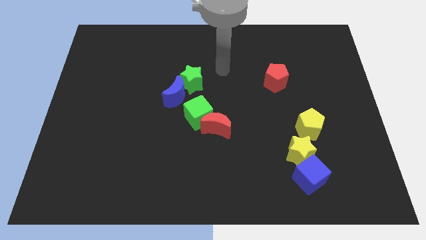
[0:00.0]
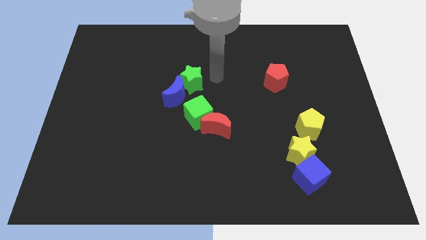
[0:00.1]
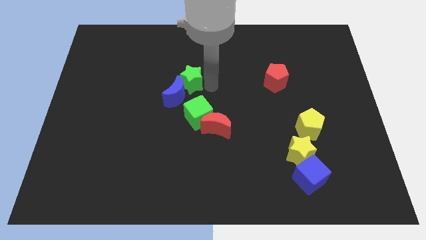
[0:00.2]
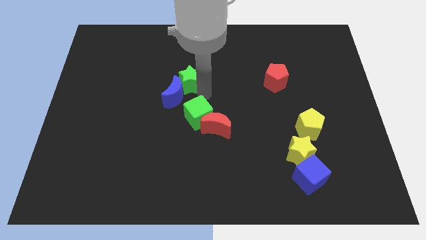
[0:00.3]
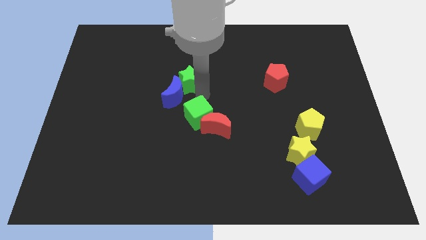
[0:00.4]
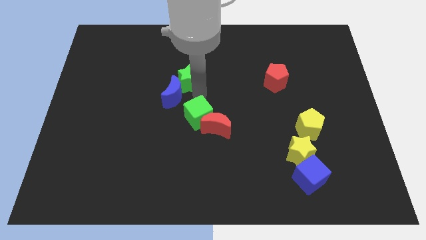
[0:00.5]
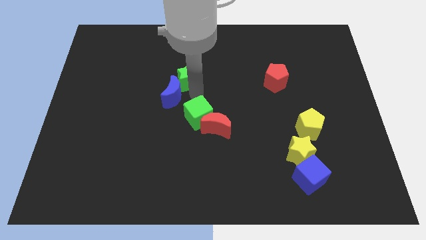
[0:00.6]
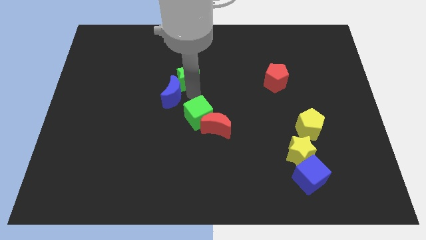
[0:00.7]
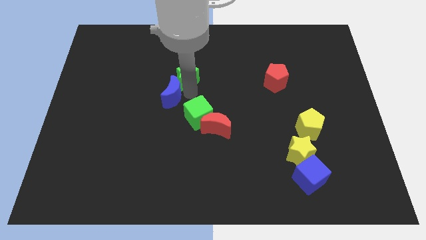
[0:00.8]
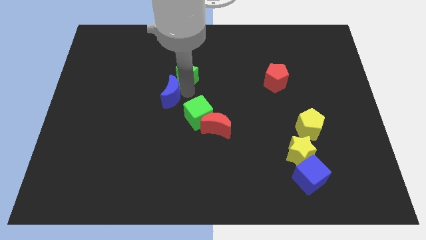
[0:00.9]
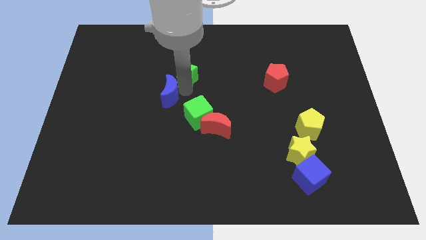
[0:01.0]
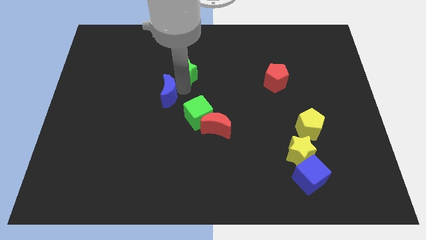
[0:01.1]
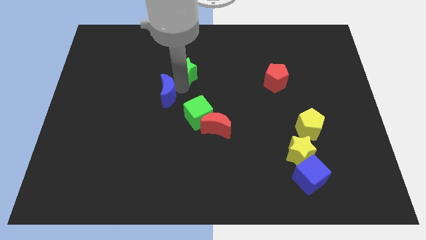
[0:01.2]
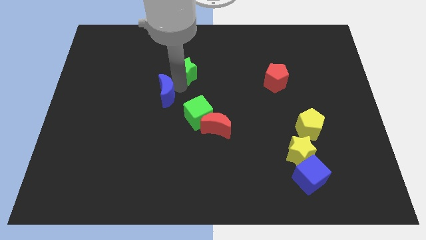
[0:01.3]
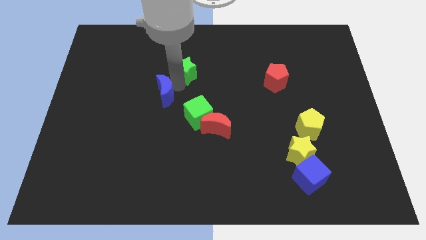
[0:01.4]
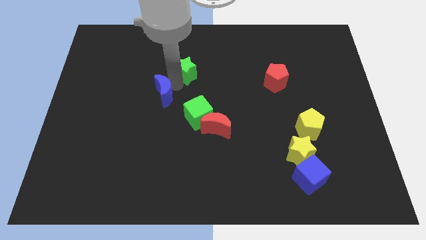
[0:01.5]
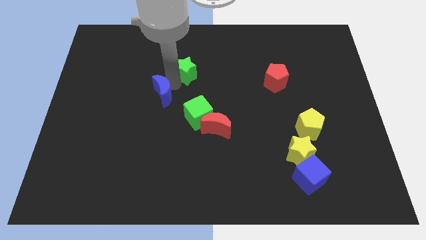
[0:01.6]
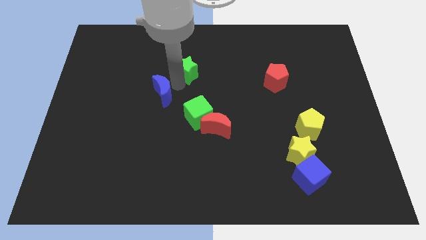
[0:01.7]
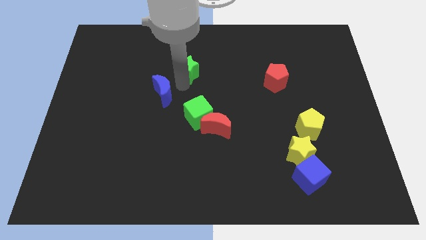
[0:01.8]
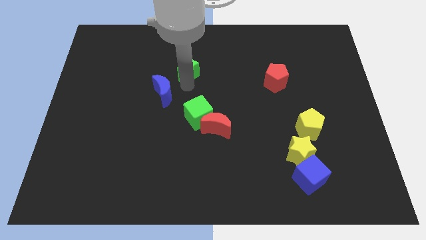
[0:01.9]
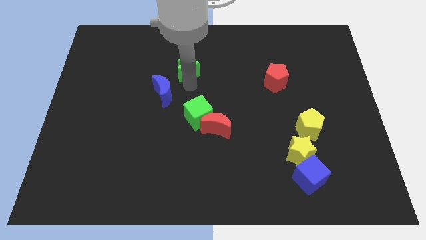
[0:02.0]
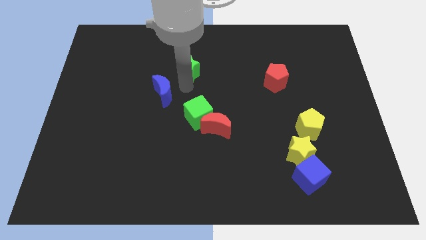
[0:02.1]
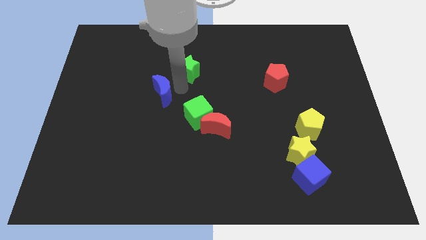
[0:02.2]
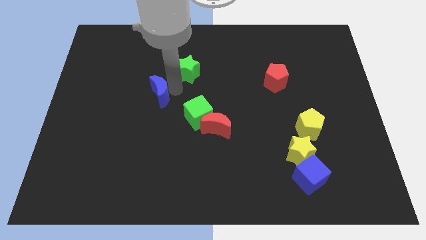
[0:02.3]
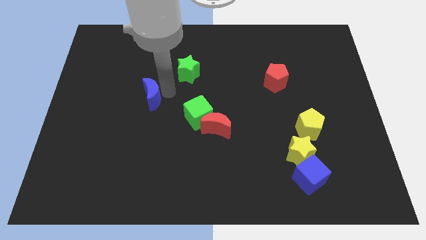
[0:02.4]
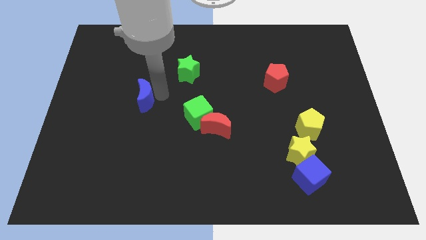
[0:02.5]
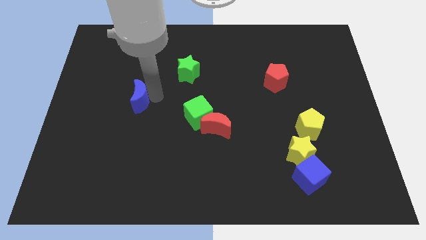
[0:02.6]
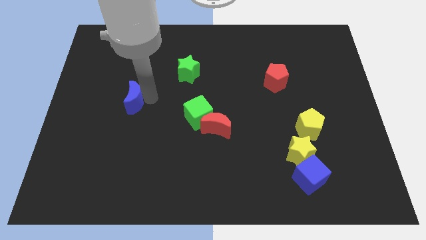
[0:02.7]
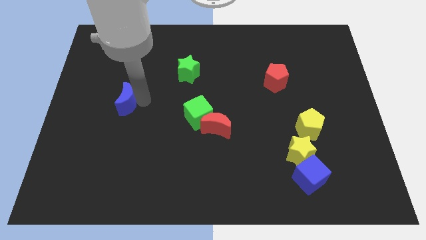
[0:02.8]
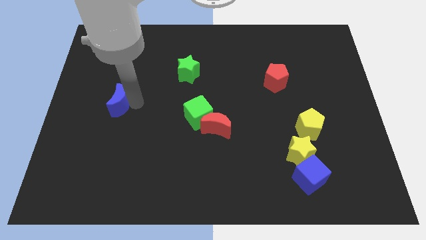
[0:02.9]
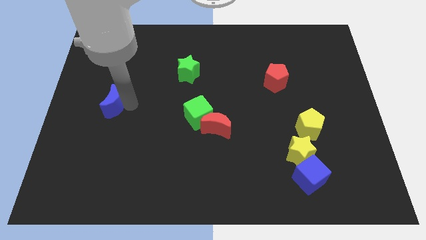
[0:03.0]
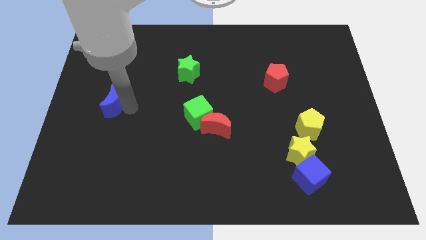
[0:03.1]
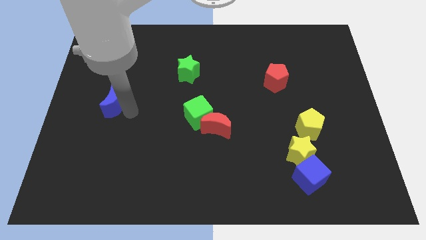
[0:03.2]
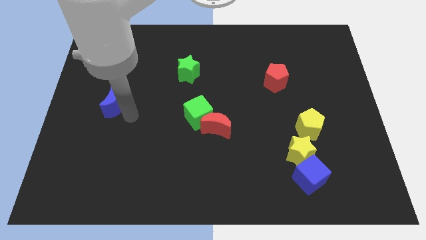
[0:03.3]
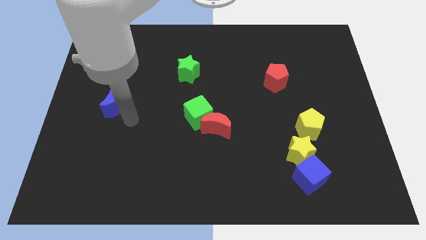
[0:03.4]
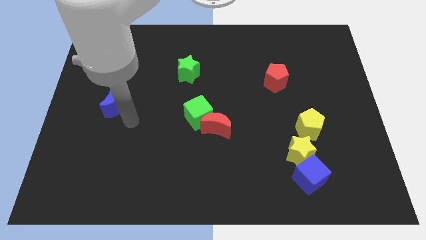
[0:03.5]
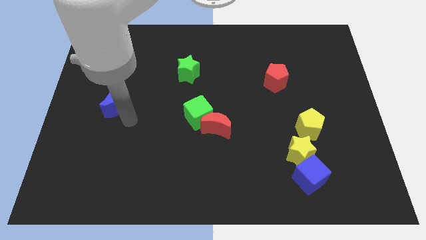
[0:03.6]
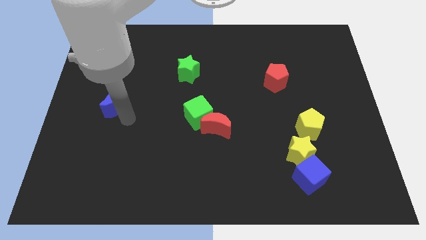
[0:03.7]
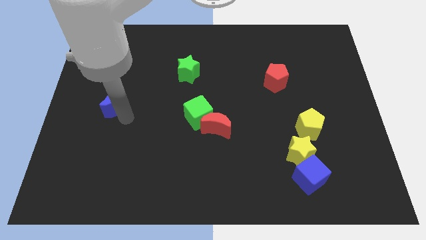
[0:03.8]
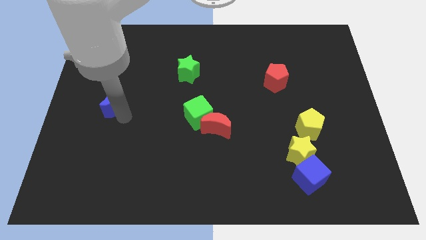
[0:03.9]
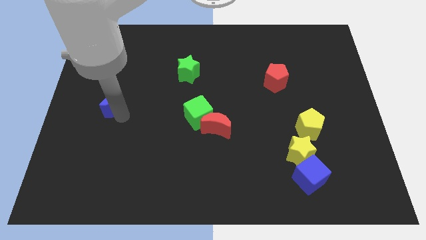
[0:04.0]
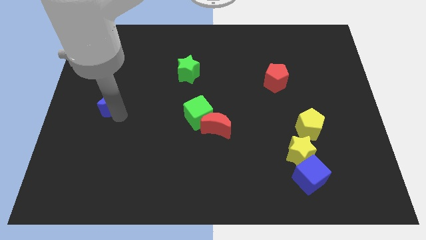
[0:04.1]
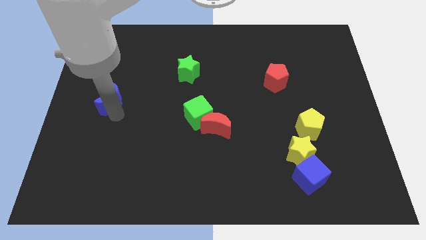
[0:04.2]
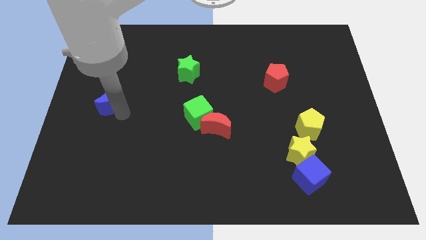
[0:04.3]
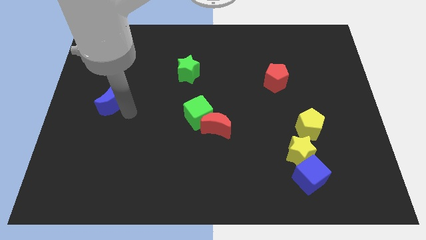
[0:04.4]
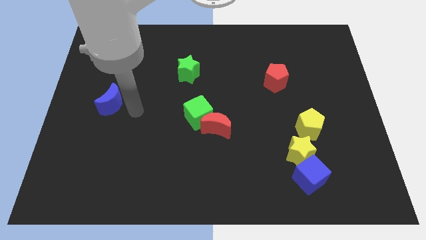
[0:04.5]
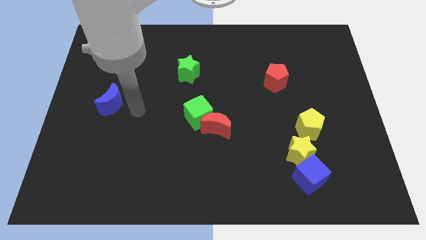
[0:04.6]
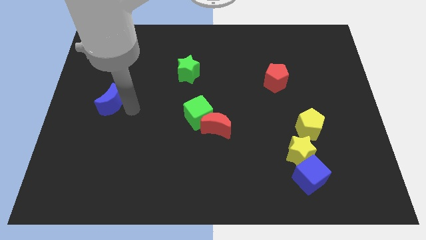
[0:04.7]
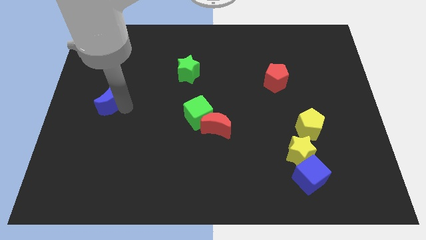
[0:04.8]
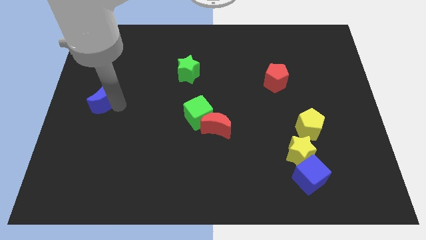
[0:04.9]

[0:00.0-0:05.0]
slide the blue moon to the center left

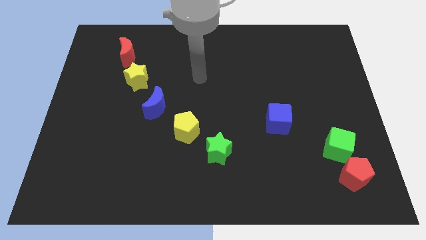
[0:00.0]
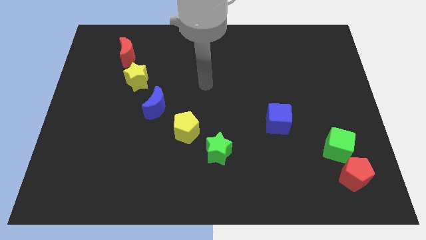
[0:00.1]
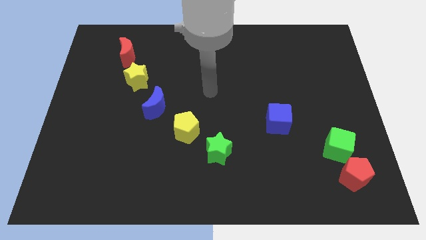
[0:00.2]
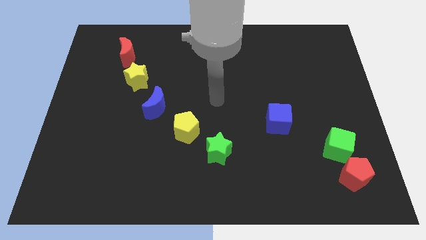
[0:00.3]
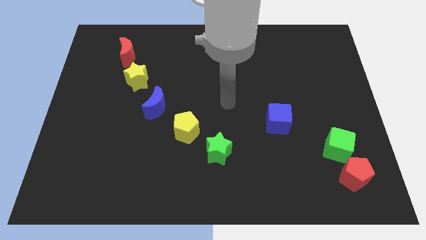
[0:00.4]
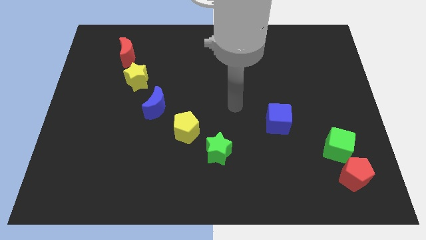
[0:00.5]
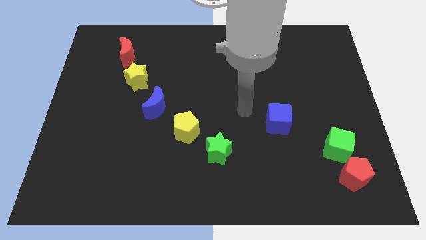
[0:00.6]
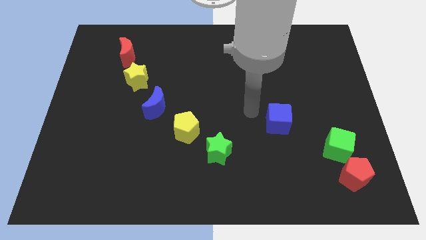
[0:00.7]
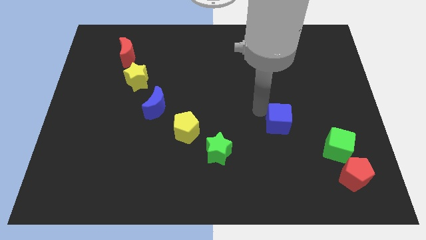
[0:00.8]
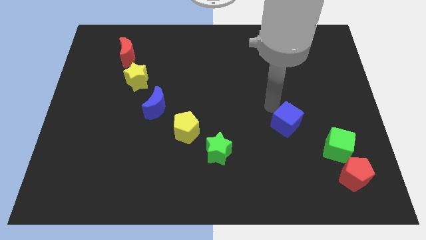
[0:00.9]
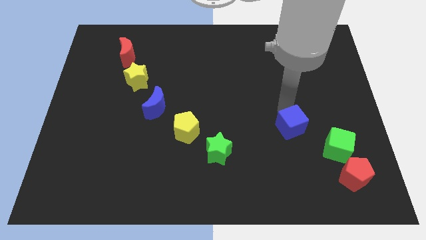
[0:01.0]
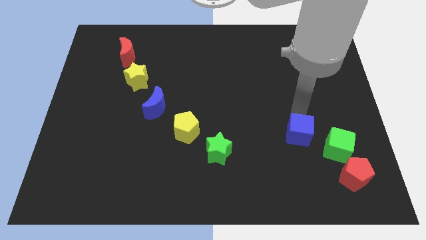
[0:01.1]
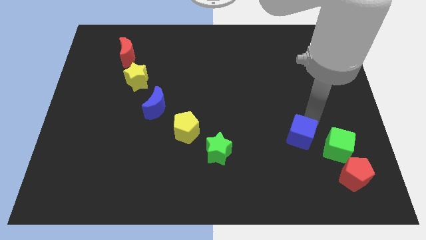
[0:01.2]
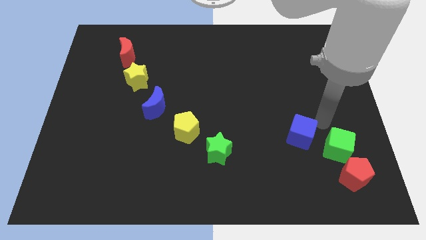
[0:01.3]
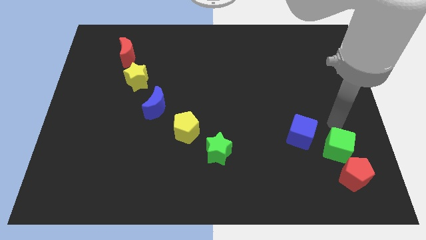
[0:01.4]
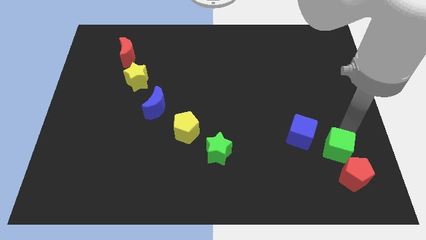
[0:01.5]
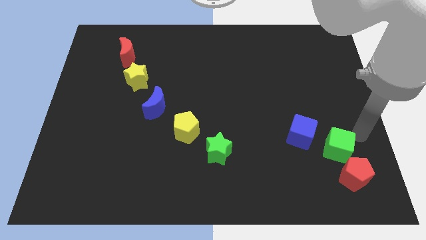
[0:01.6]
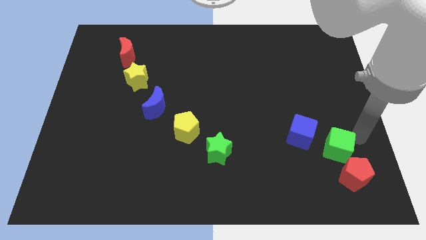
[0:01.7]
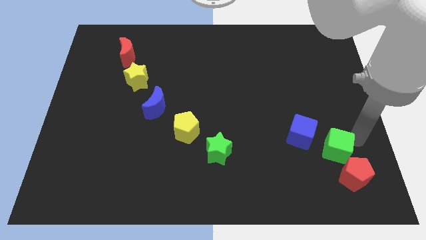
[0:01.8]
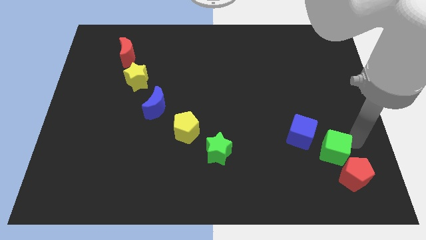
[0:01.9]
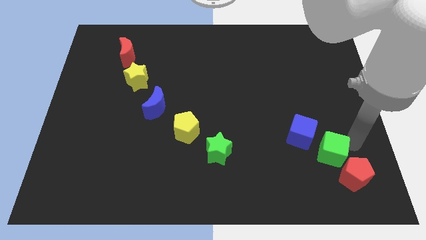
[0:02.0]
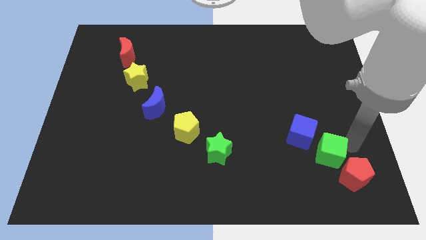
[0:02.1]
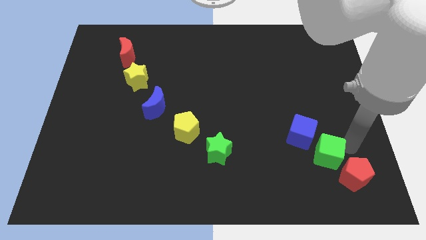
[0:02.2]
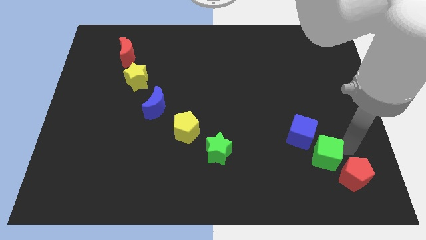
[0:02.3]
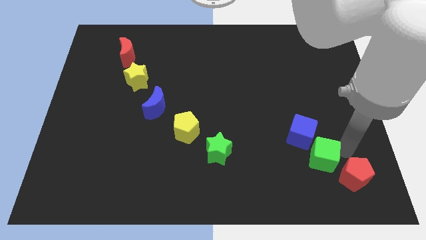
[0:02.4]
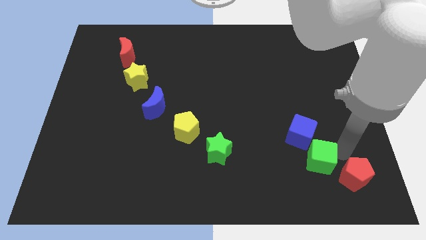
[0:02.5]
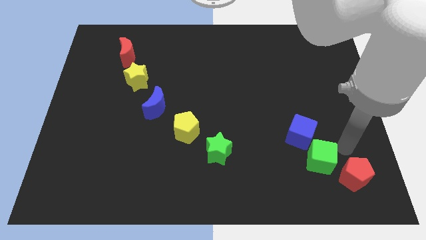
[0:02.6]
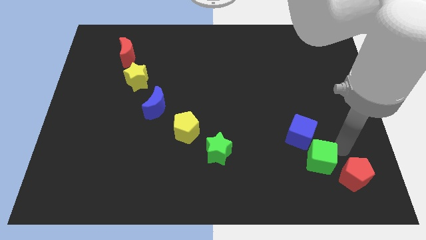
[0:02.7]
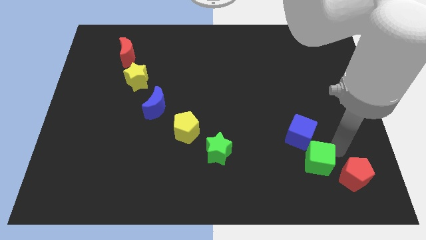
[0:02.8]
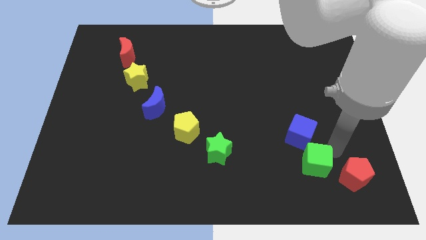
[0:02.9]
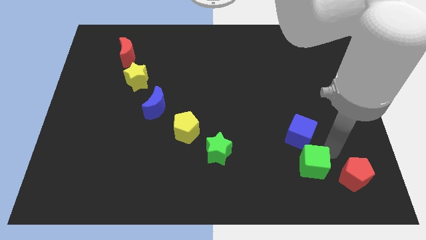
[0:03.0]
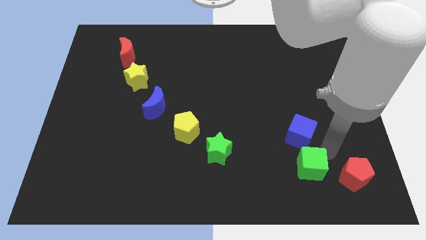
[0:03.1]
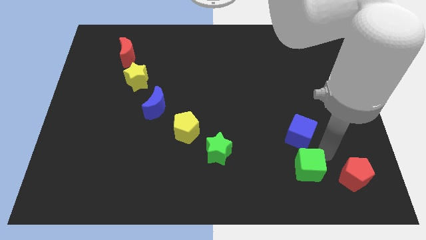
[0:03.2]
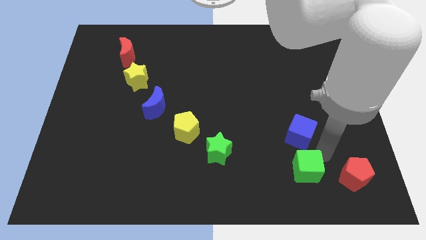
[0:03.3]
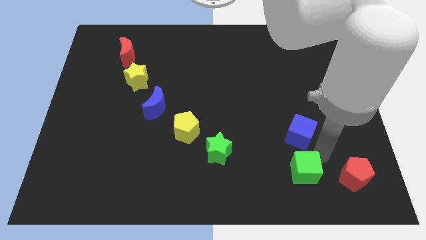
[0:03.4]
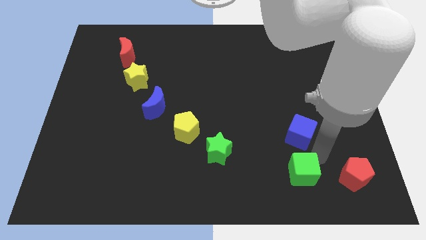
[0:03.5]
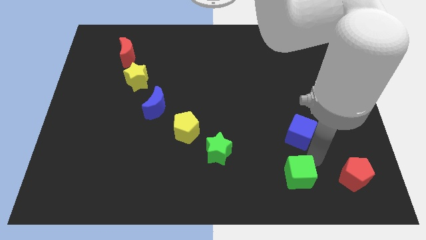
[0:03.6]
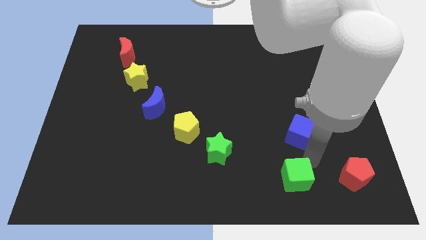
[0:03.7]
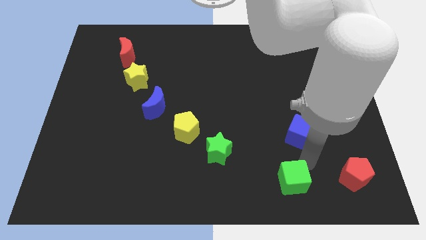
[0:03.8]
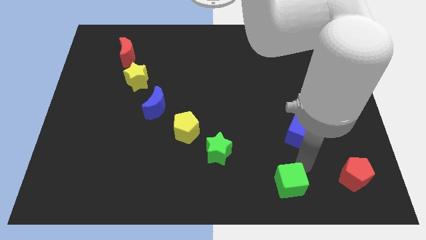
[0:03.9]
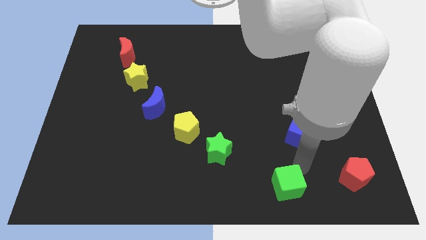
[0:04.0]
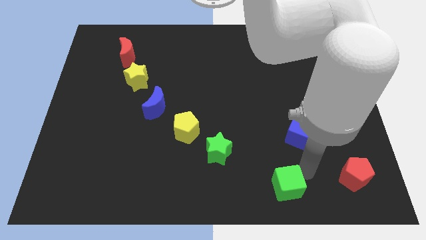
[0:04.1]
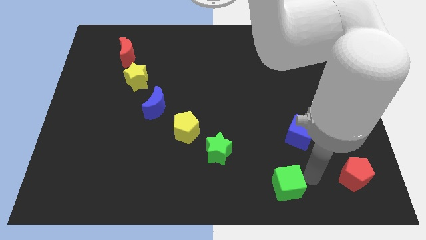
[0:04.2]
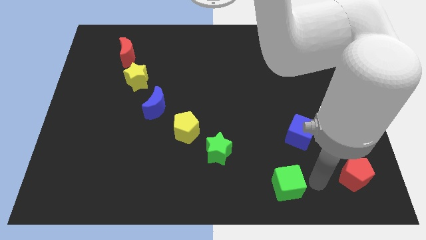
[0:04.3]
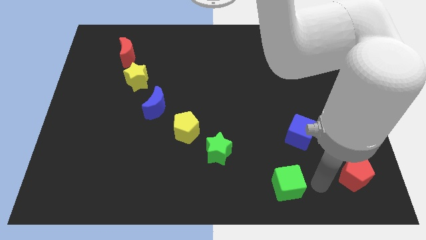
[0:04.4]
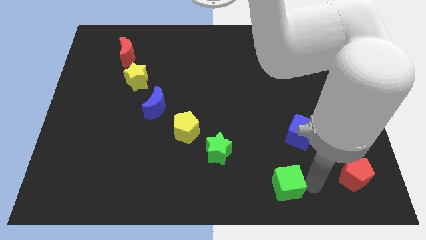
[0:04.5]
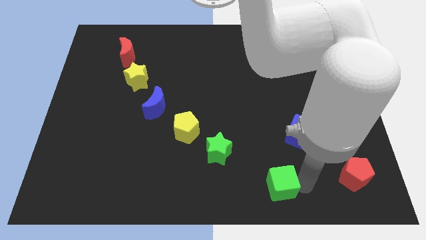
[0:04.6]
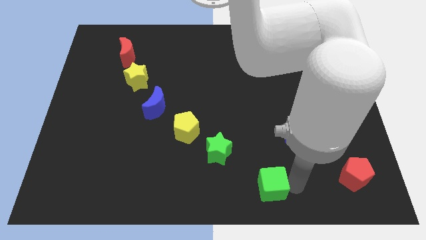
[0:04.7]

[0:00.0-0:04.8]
push the green cube to the bottom side
